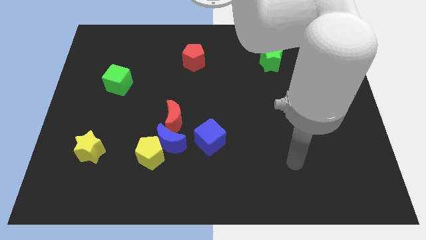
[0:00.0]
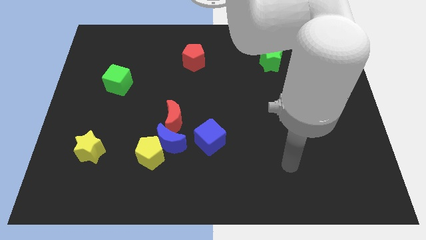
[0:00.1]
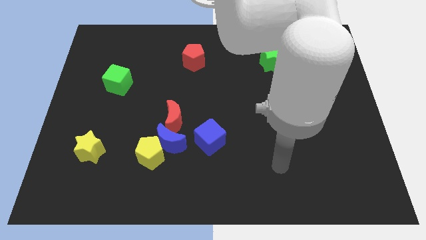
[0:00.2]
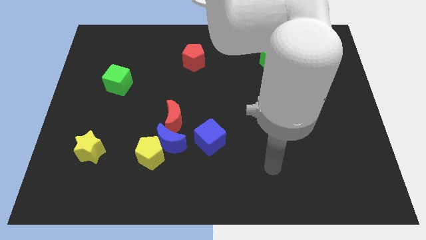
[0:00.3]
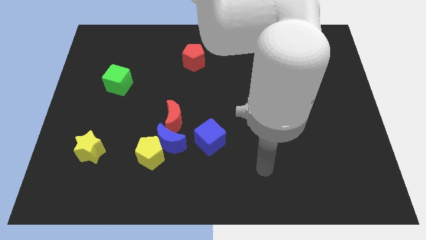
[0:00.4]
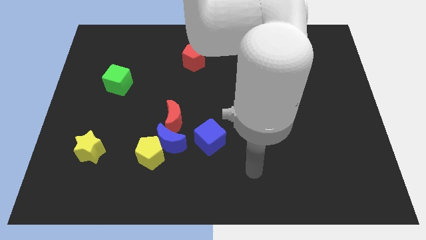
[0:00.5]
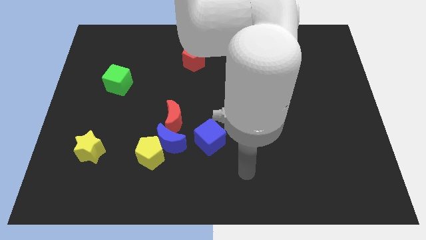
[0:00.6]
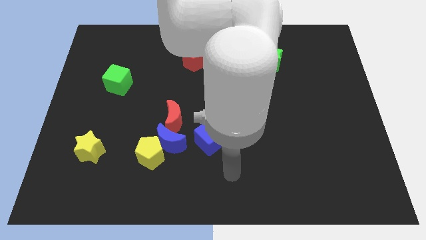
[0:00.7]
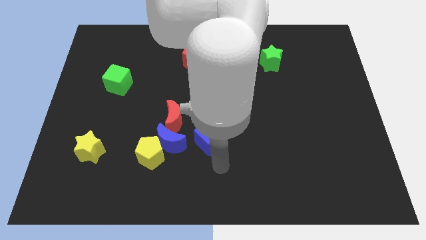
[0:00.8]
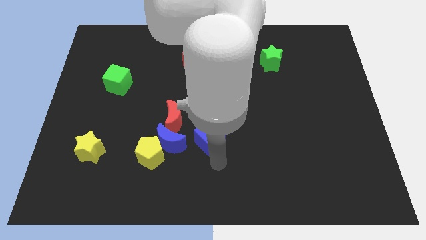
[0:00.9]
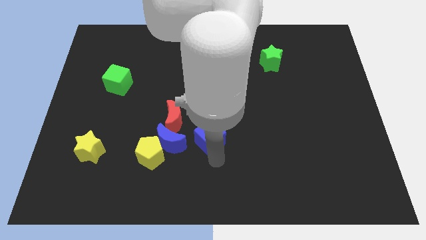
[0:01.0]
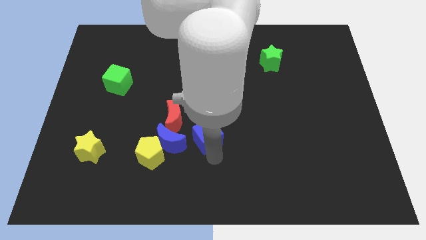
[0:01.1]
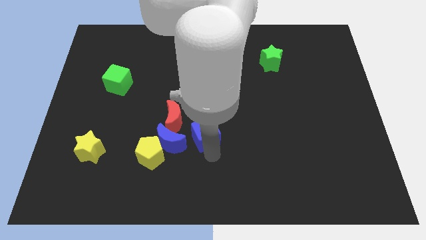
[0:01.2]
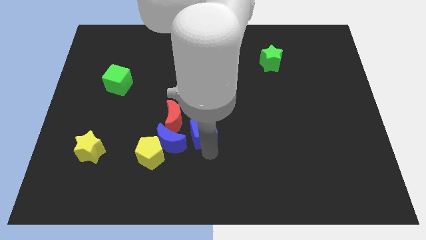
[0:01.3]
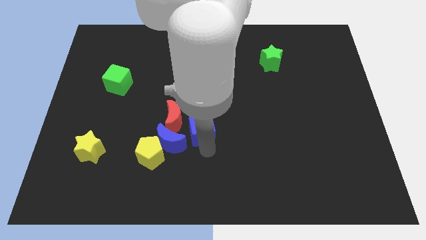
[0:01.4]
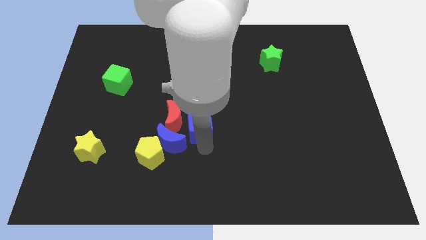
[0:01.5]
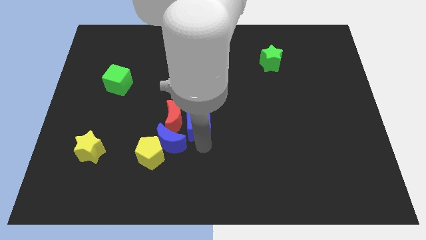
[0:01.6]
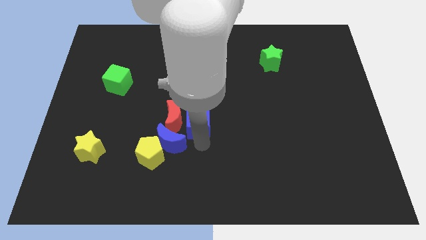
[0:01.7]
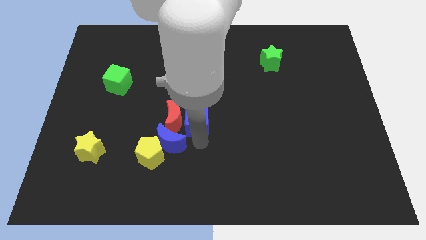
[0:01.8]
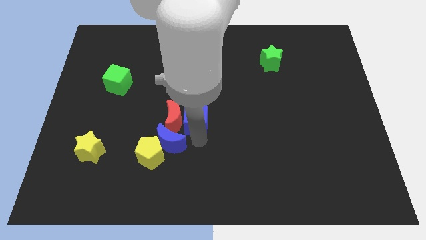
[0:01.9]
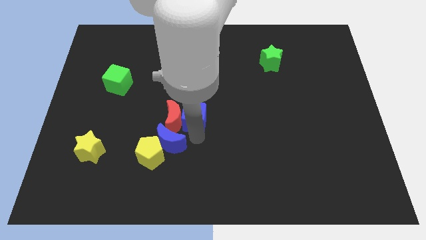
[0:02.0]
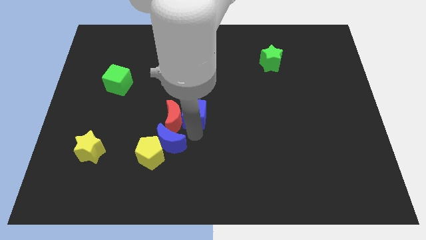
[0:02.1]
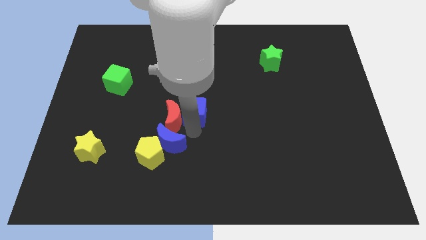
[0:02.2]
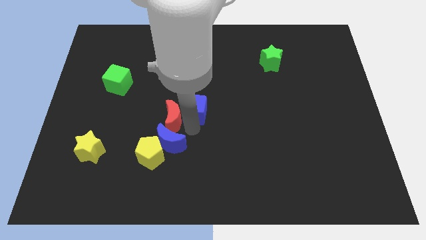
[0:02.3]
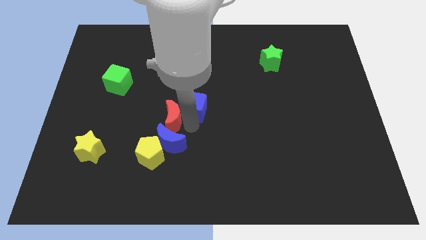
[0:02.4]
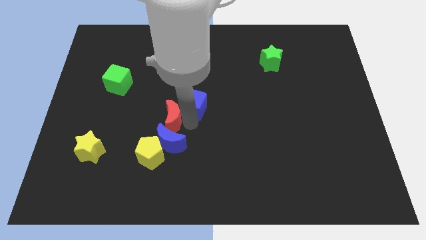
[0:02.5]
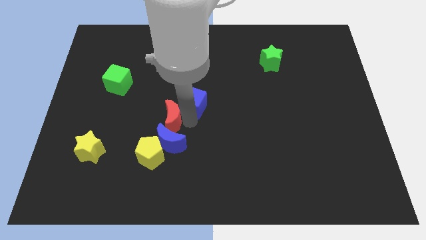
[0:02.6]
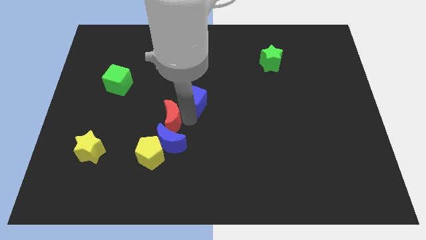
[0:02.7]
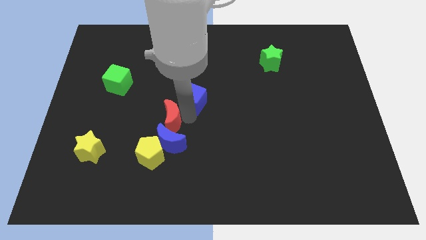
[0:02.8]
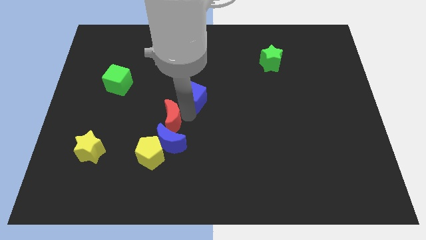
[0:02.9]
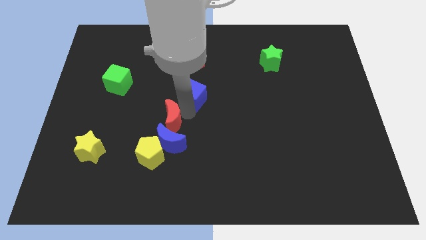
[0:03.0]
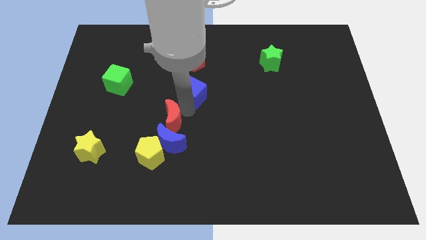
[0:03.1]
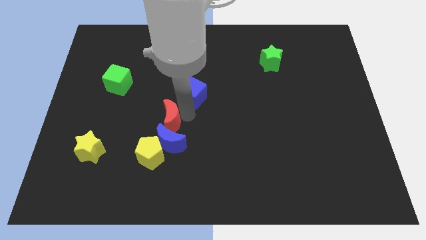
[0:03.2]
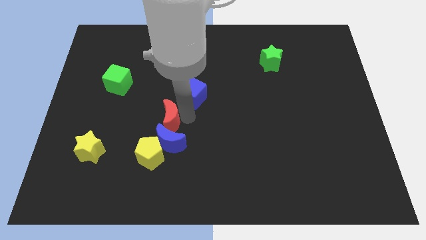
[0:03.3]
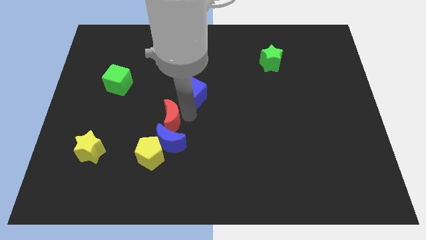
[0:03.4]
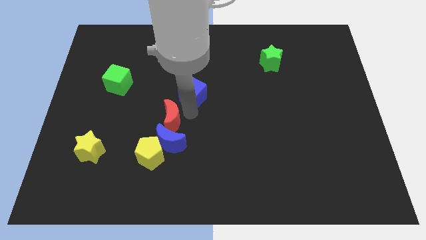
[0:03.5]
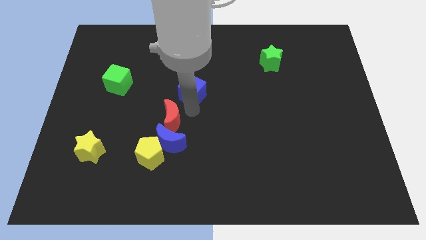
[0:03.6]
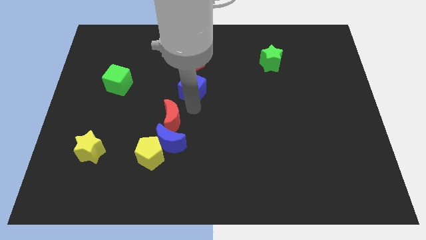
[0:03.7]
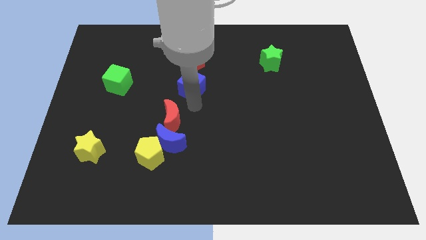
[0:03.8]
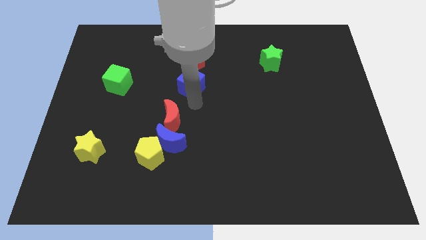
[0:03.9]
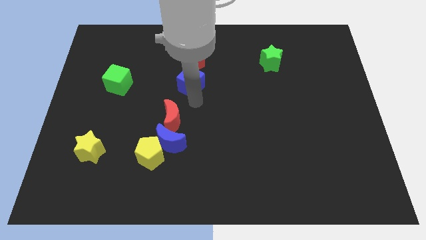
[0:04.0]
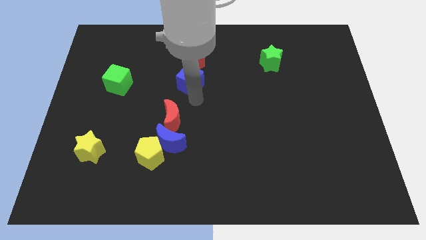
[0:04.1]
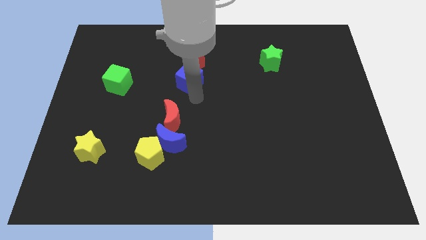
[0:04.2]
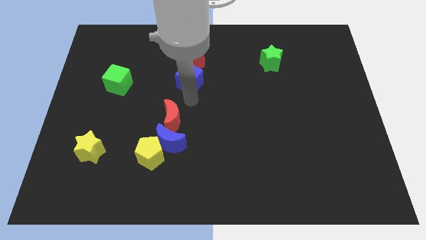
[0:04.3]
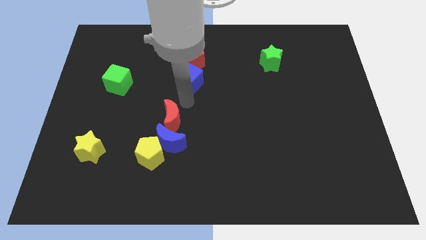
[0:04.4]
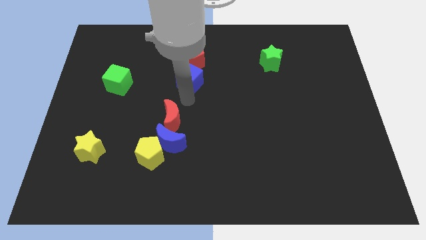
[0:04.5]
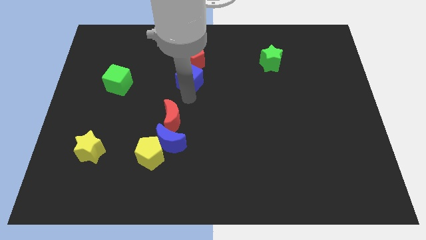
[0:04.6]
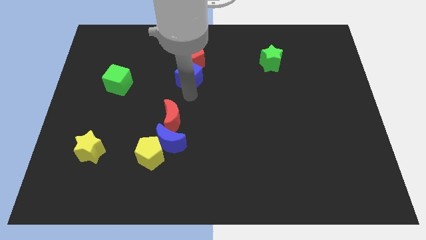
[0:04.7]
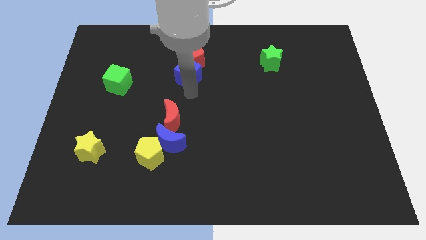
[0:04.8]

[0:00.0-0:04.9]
slide the blue cube close to the red pentagon

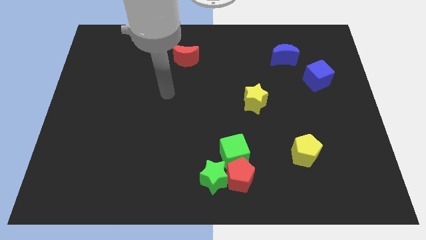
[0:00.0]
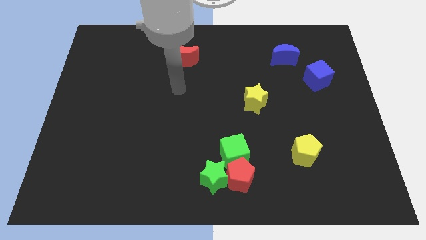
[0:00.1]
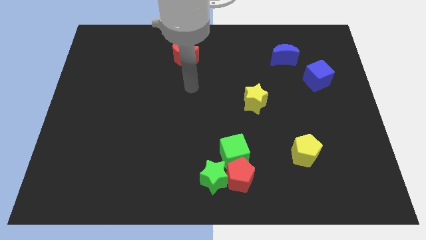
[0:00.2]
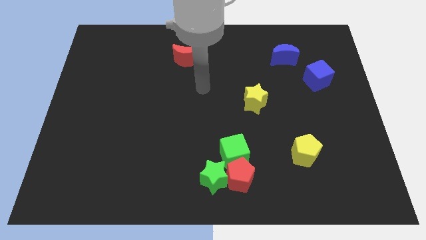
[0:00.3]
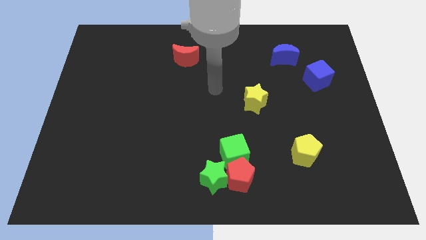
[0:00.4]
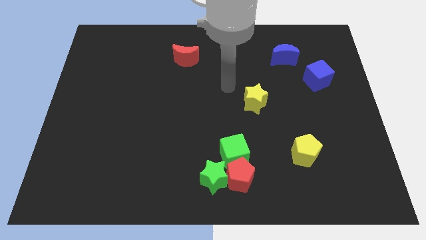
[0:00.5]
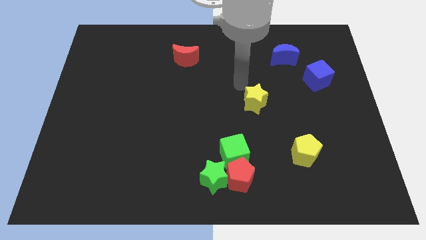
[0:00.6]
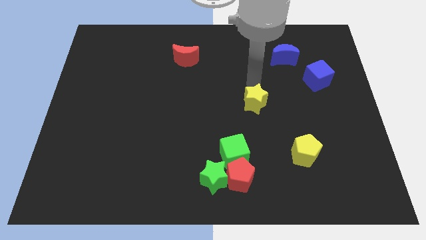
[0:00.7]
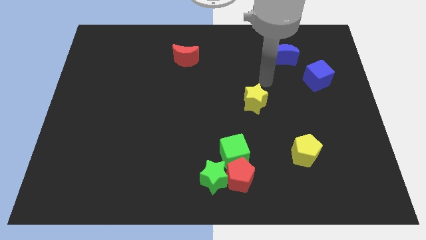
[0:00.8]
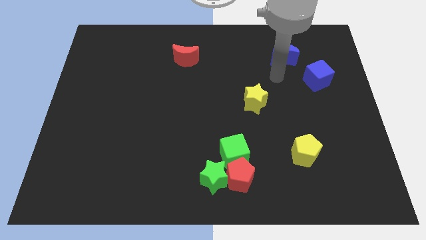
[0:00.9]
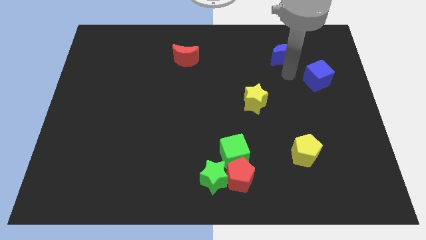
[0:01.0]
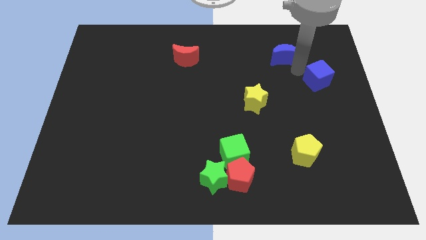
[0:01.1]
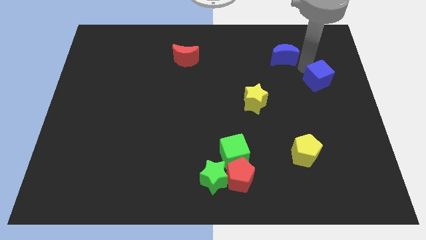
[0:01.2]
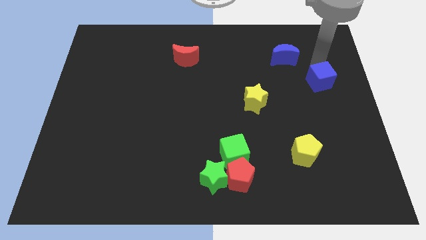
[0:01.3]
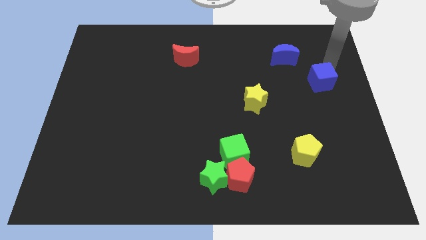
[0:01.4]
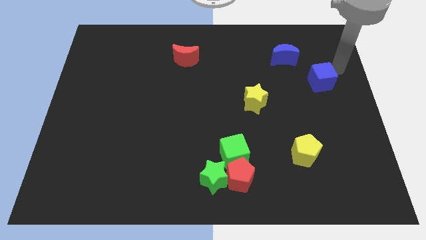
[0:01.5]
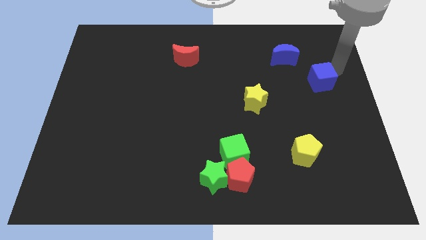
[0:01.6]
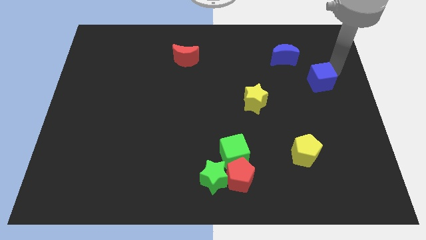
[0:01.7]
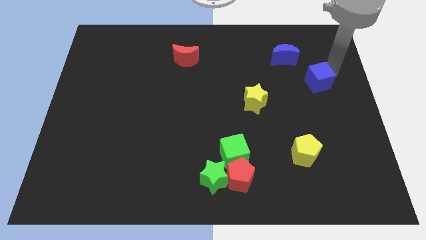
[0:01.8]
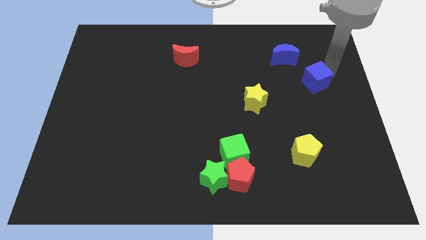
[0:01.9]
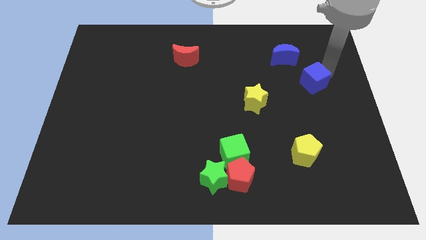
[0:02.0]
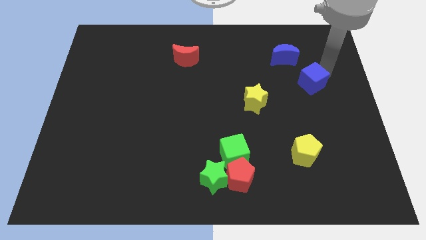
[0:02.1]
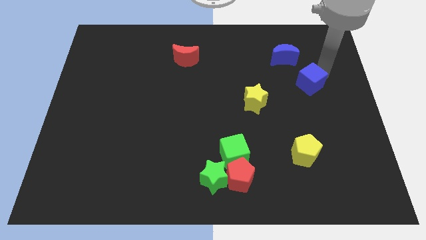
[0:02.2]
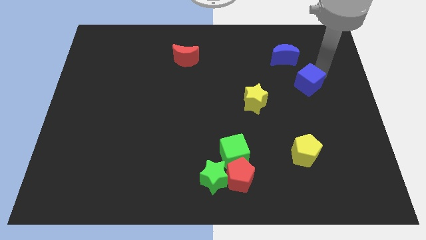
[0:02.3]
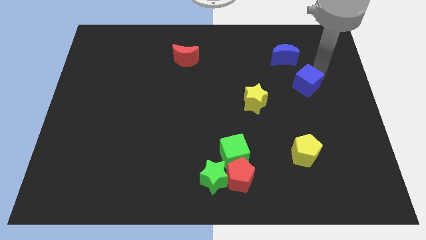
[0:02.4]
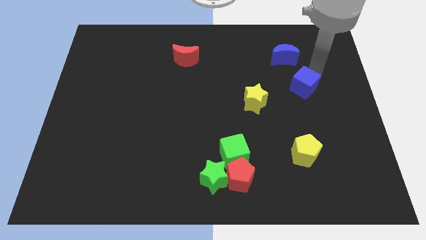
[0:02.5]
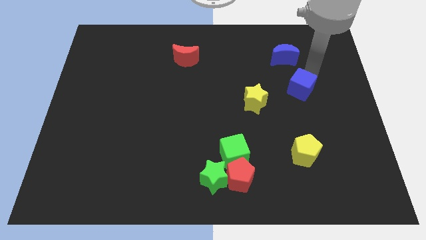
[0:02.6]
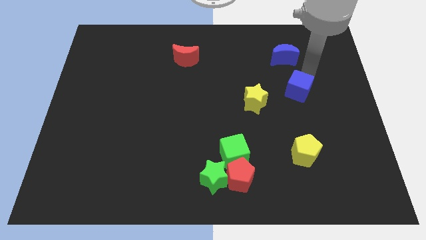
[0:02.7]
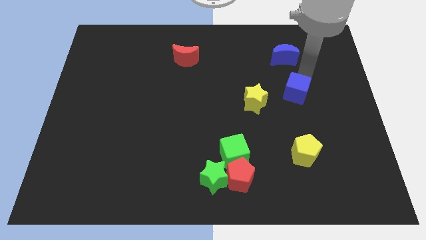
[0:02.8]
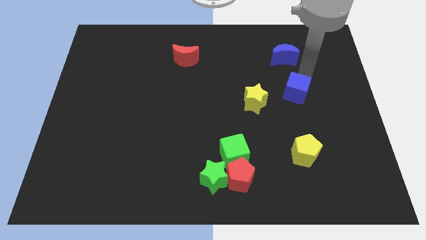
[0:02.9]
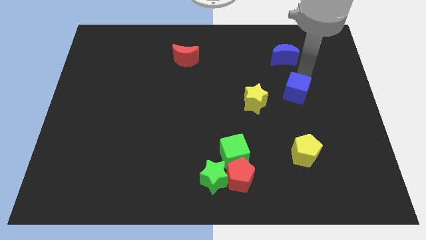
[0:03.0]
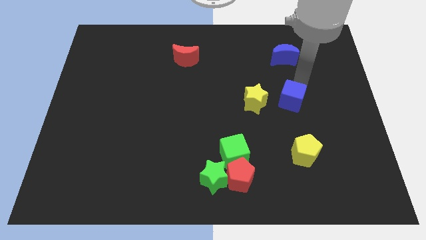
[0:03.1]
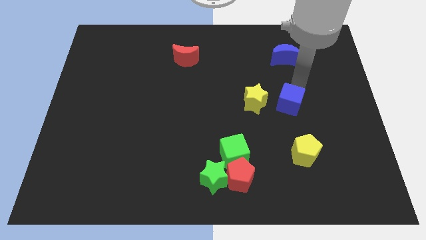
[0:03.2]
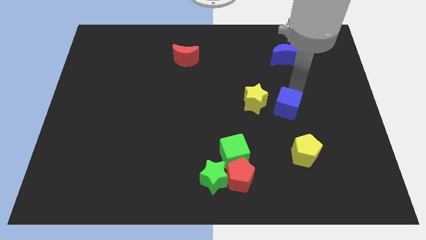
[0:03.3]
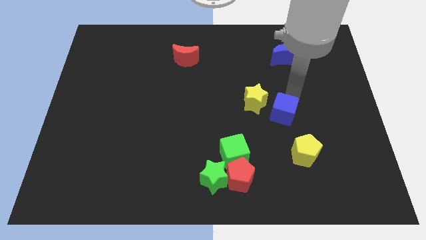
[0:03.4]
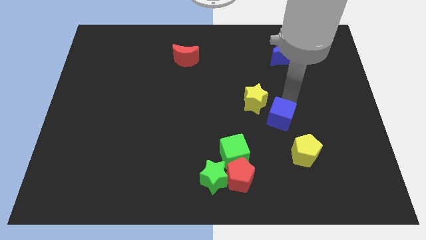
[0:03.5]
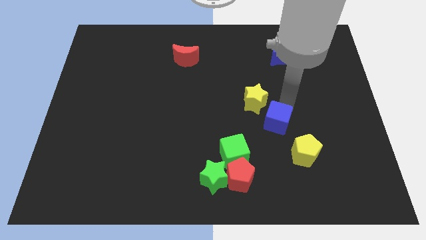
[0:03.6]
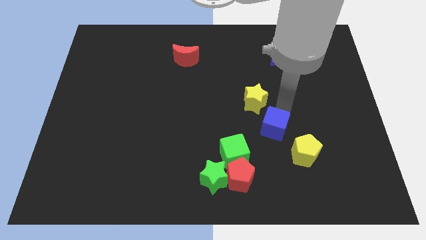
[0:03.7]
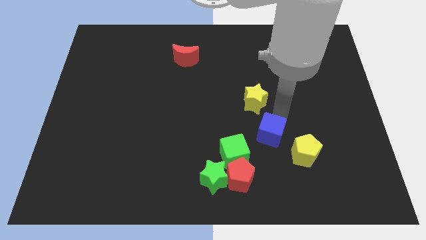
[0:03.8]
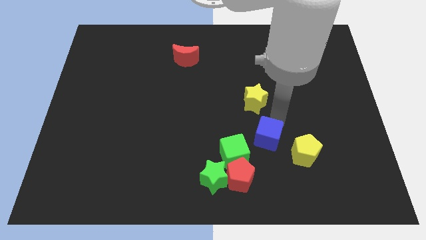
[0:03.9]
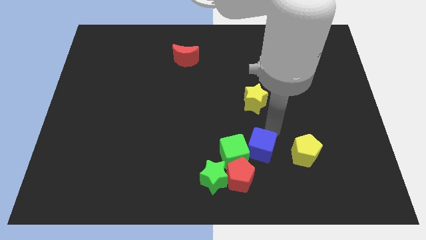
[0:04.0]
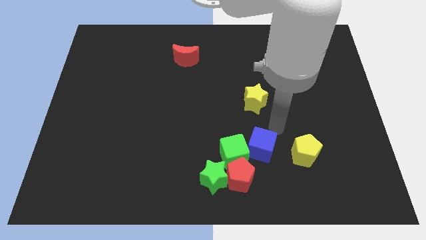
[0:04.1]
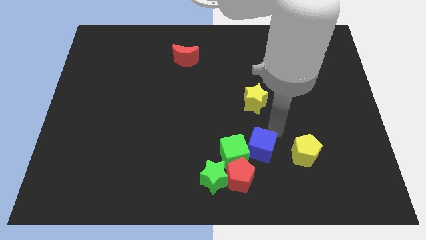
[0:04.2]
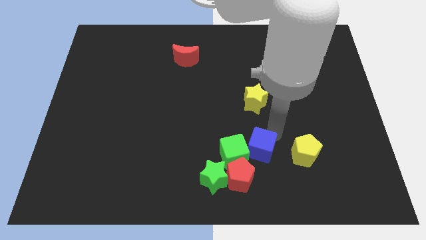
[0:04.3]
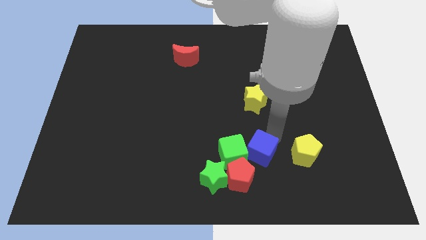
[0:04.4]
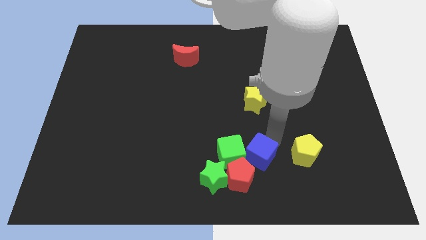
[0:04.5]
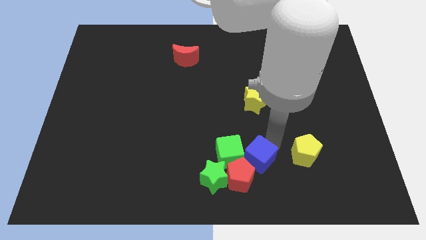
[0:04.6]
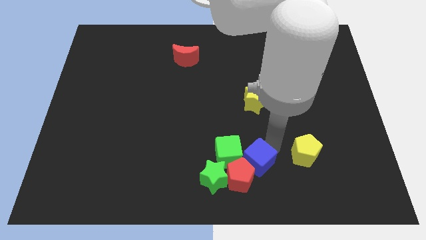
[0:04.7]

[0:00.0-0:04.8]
push the blue cube next to the red pentagon
